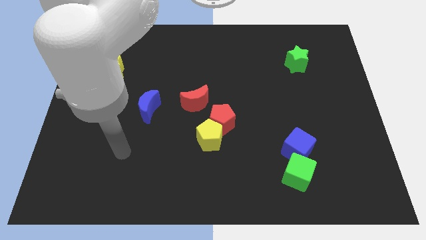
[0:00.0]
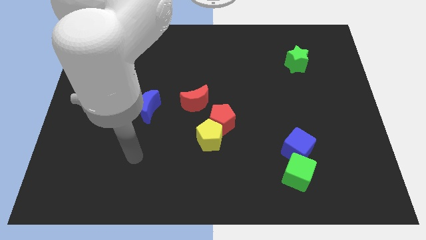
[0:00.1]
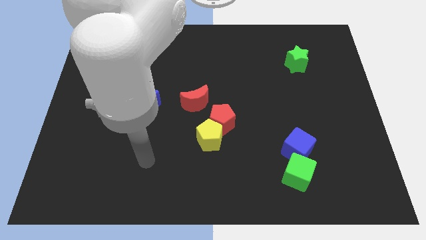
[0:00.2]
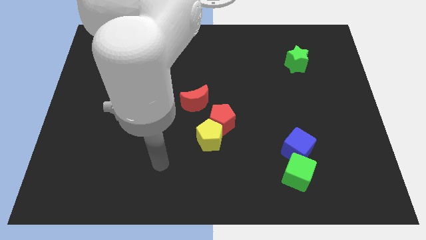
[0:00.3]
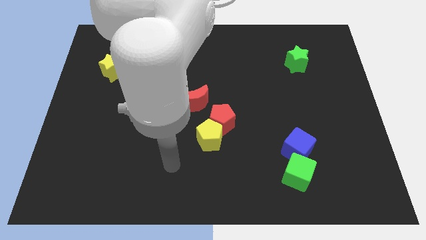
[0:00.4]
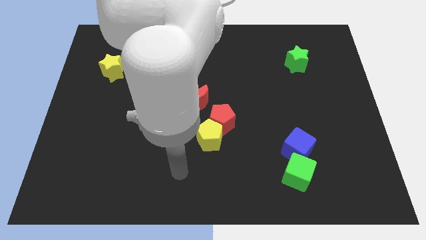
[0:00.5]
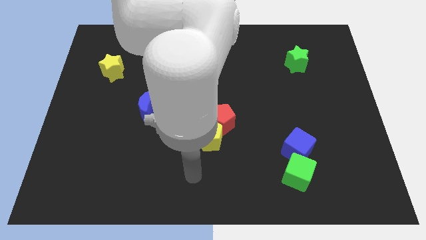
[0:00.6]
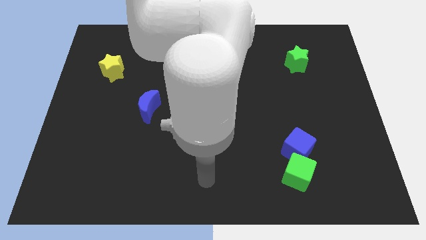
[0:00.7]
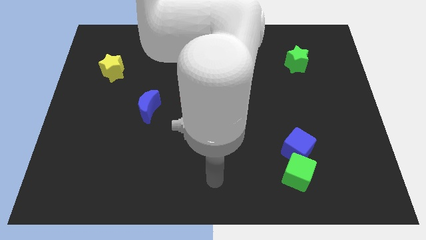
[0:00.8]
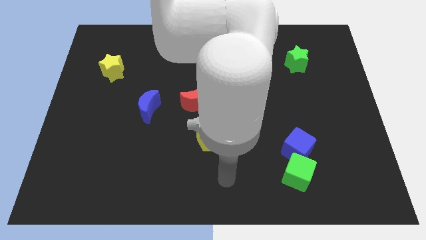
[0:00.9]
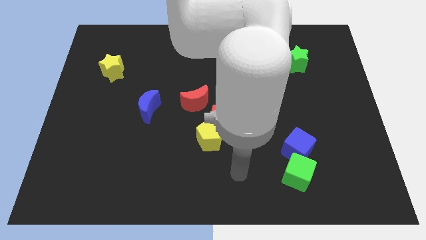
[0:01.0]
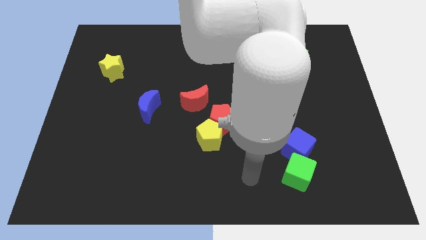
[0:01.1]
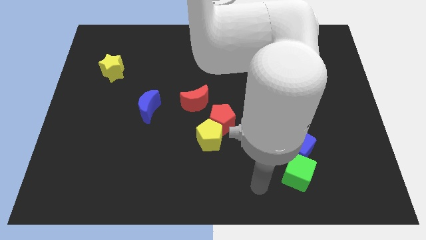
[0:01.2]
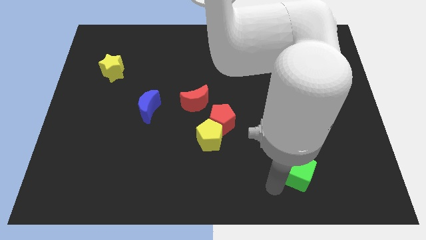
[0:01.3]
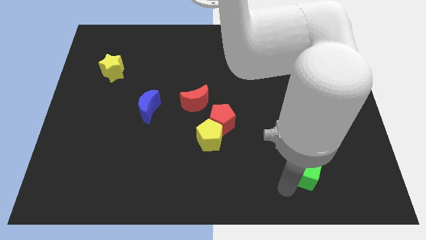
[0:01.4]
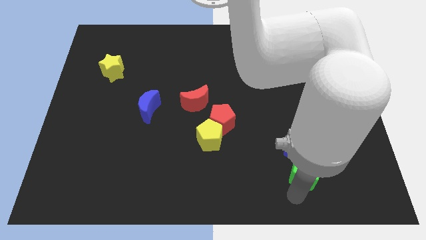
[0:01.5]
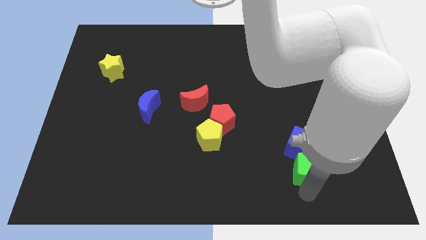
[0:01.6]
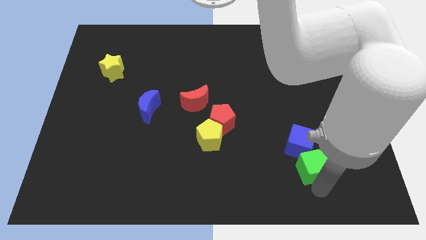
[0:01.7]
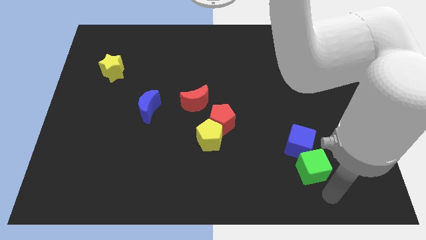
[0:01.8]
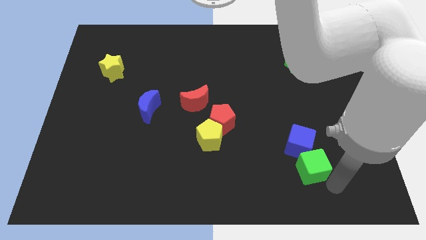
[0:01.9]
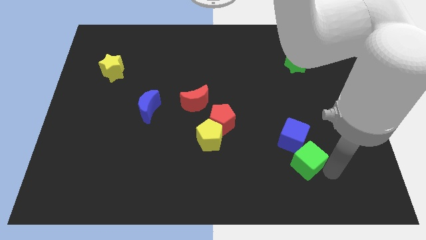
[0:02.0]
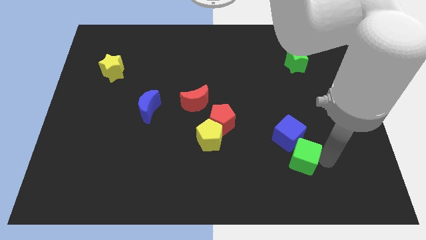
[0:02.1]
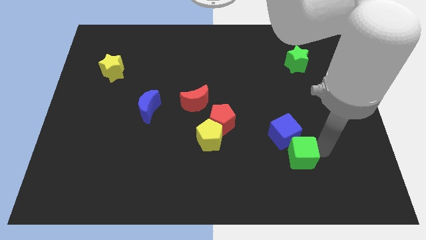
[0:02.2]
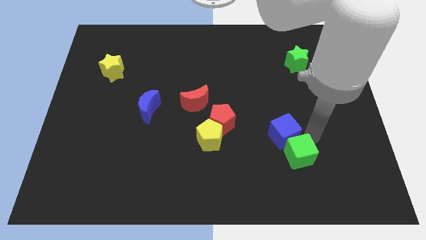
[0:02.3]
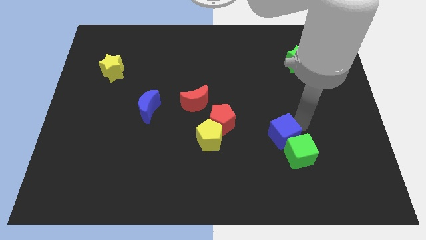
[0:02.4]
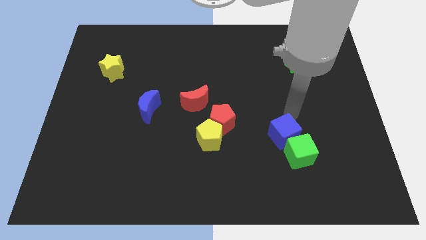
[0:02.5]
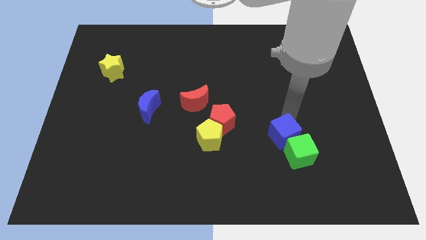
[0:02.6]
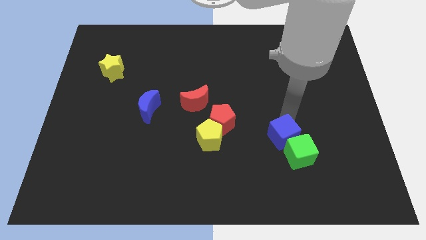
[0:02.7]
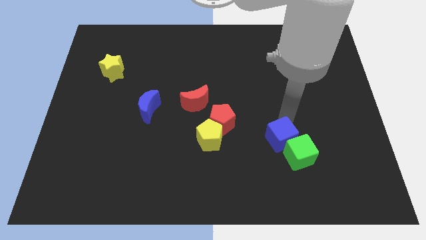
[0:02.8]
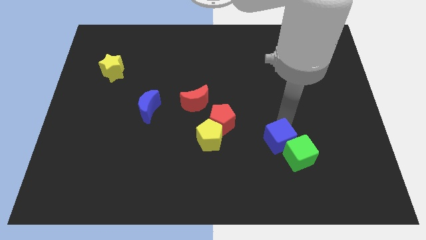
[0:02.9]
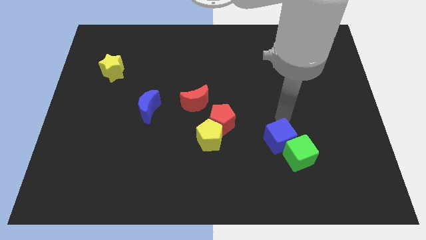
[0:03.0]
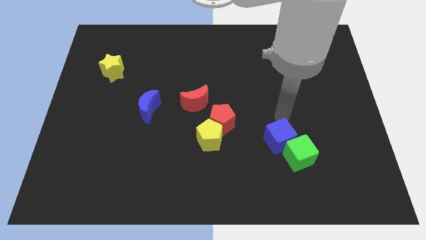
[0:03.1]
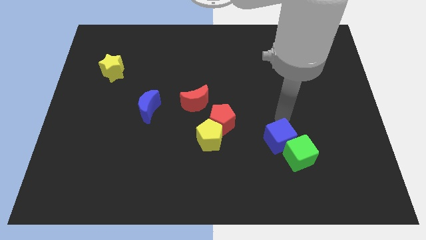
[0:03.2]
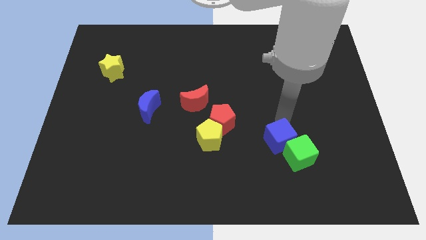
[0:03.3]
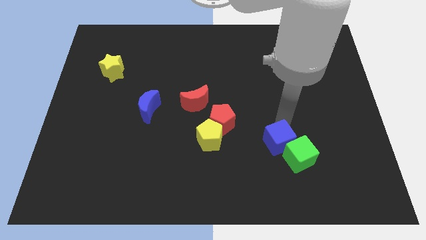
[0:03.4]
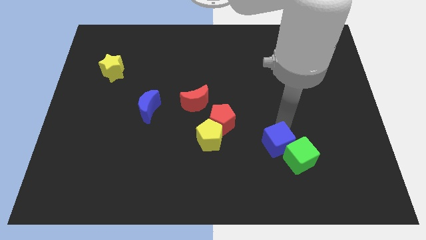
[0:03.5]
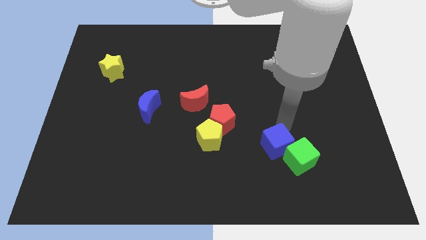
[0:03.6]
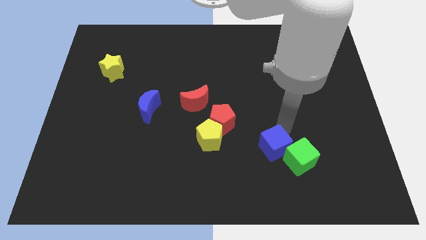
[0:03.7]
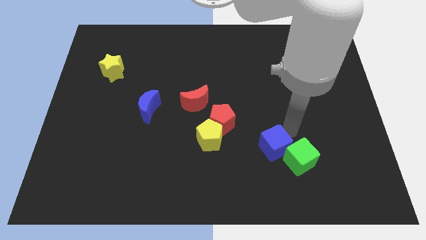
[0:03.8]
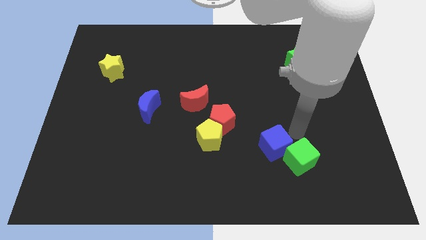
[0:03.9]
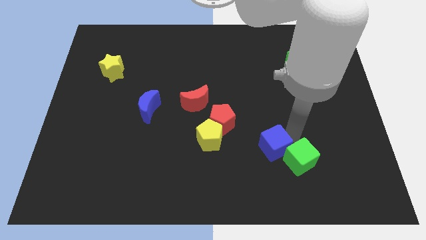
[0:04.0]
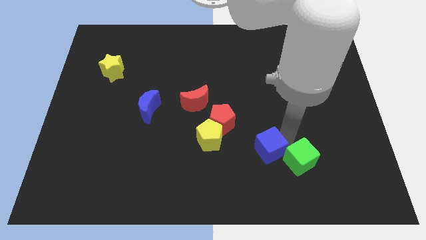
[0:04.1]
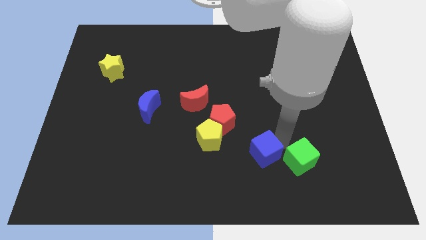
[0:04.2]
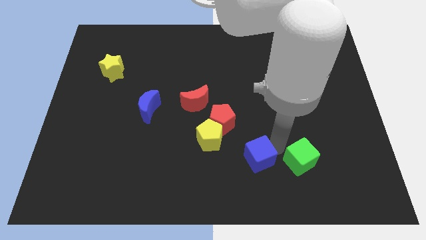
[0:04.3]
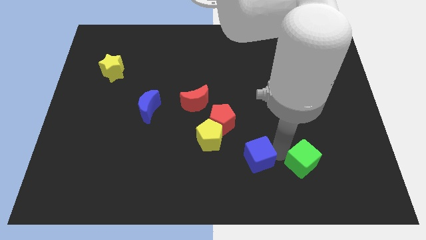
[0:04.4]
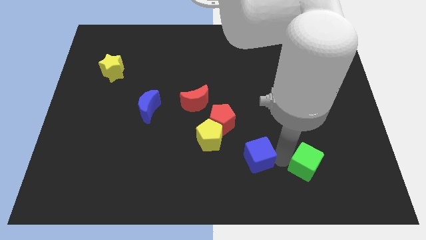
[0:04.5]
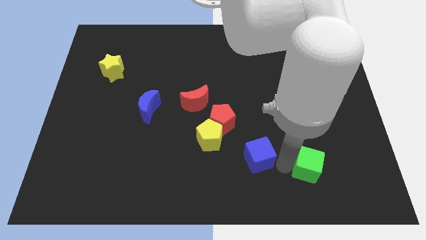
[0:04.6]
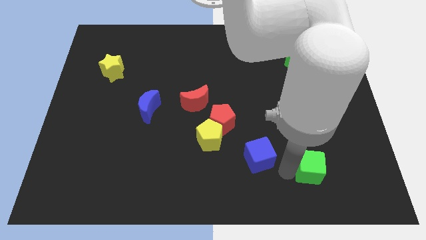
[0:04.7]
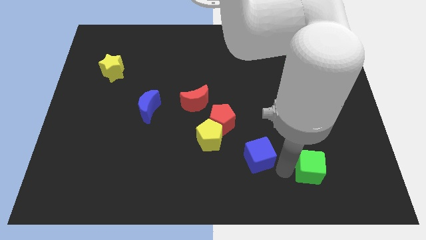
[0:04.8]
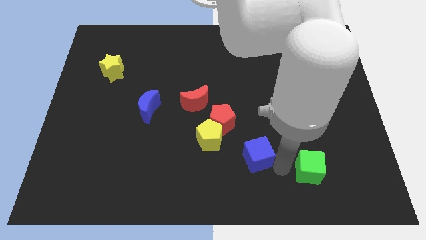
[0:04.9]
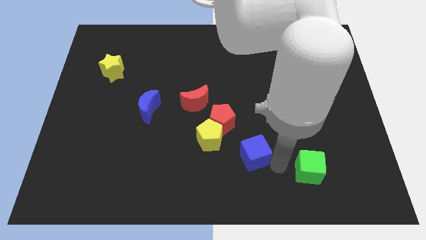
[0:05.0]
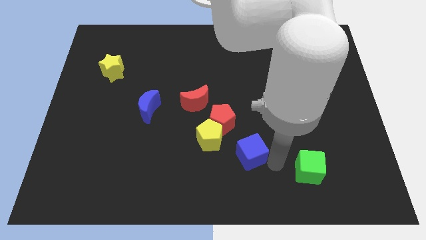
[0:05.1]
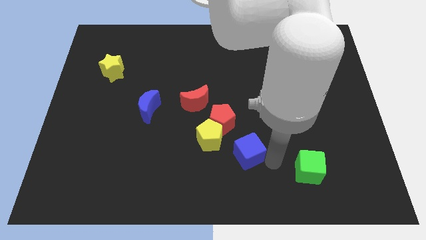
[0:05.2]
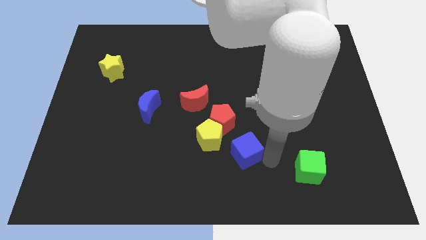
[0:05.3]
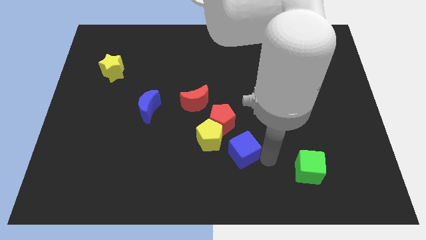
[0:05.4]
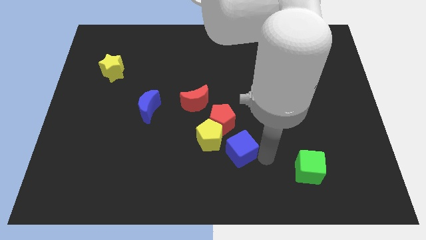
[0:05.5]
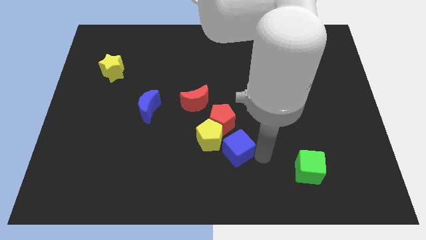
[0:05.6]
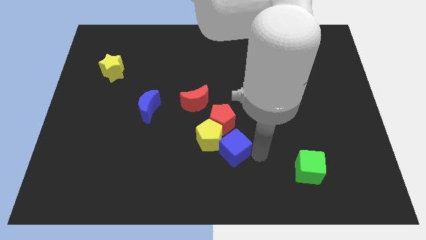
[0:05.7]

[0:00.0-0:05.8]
push the blue cube to the yellow pentagon

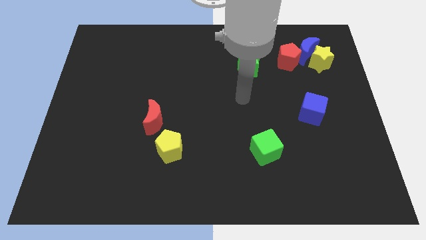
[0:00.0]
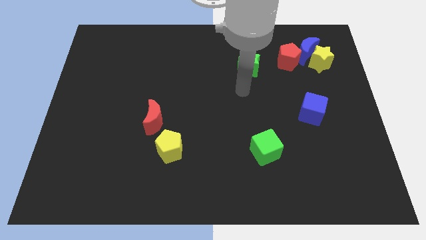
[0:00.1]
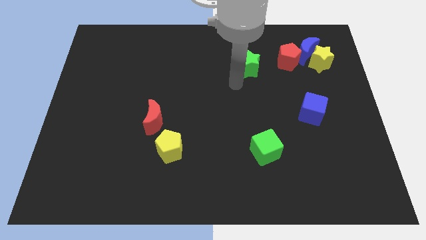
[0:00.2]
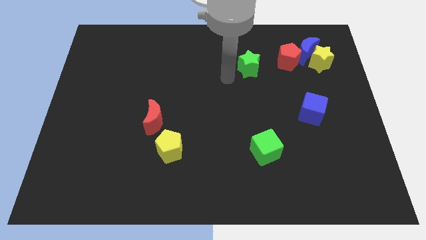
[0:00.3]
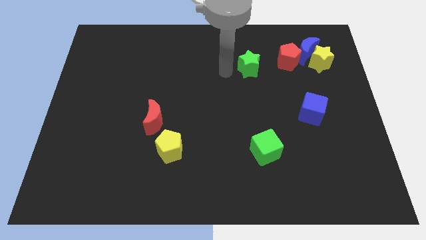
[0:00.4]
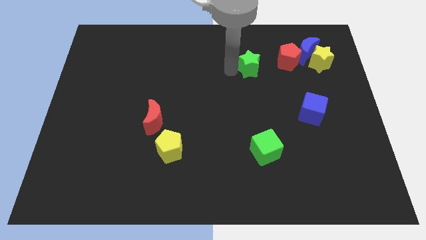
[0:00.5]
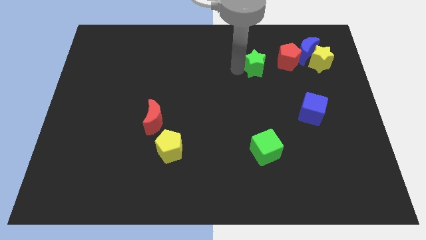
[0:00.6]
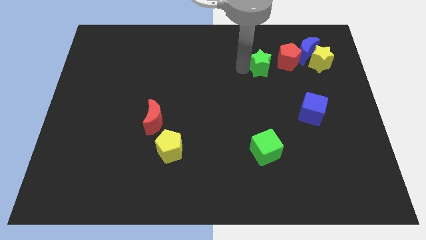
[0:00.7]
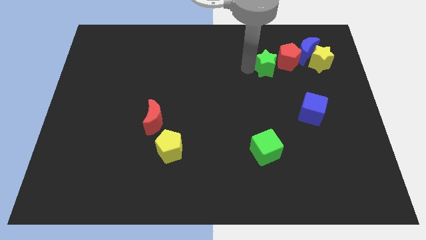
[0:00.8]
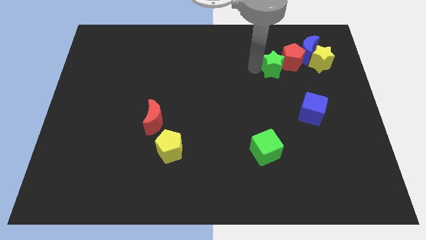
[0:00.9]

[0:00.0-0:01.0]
put the green star to the red pentagon
